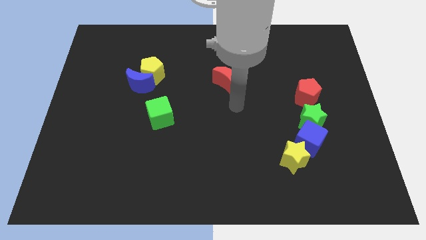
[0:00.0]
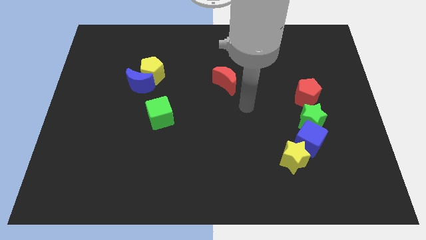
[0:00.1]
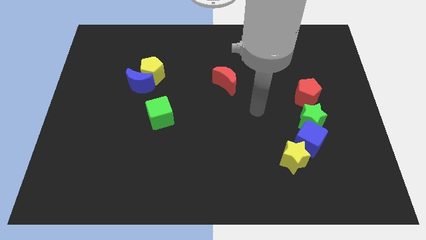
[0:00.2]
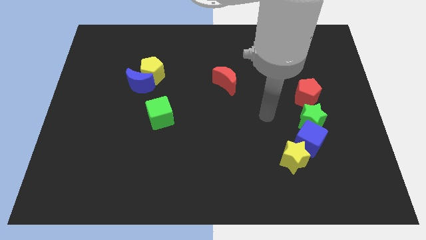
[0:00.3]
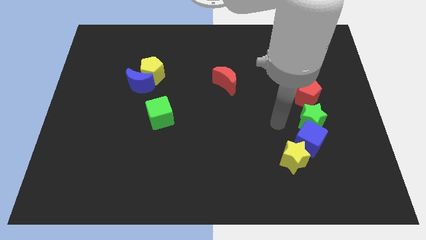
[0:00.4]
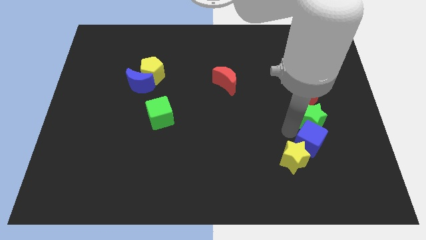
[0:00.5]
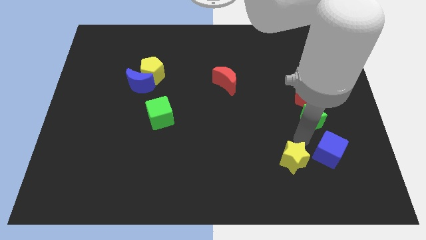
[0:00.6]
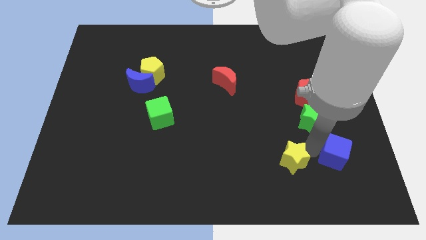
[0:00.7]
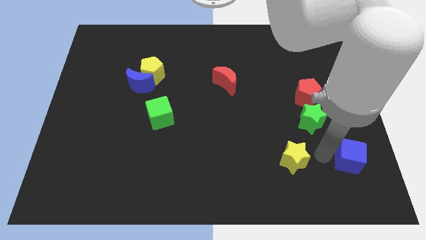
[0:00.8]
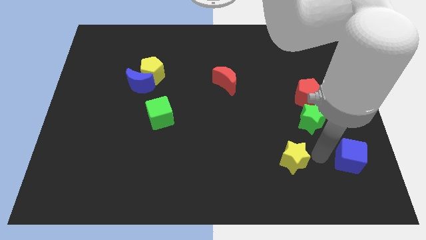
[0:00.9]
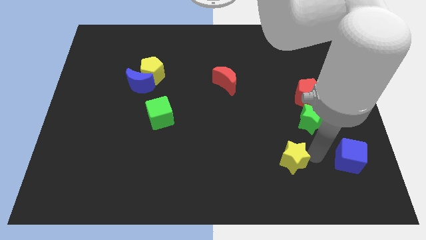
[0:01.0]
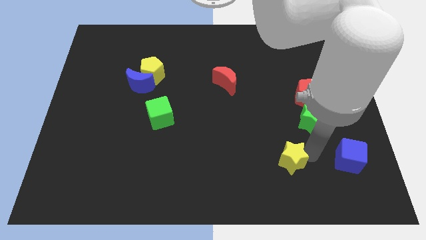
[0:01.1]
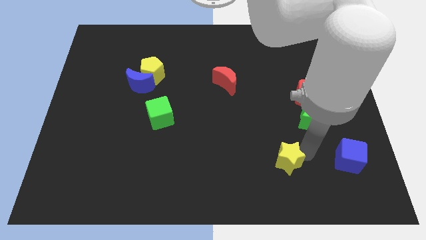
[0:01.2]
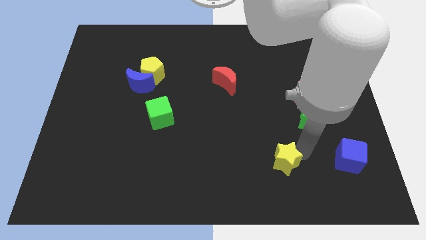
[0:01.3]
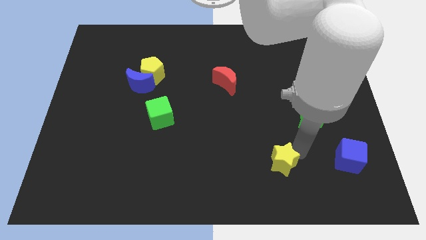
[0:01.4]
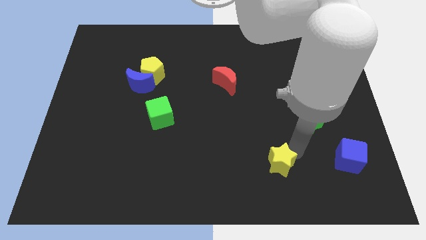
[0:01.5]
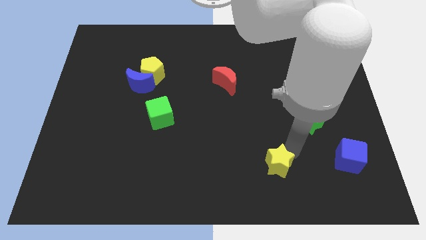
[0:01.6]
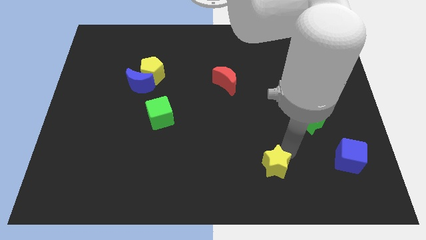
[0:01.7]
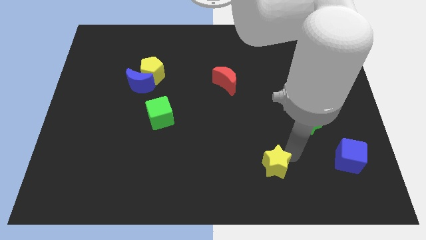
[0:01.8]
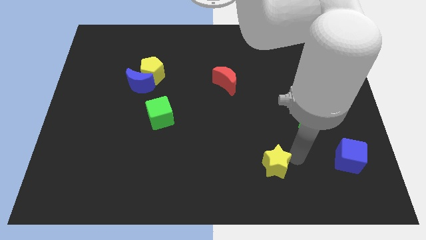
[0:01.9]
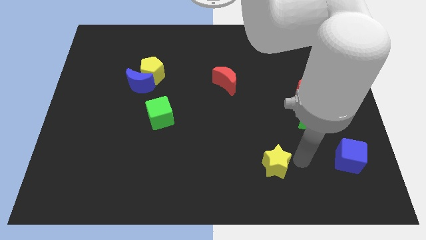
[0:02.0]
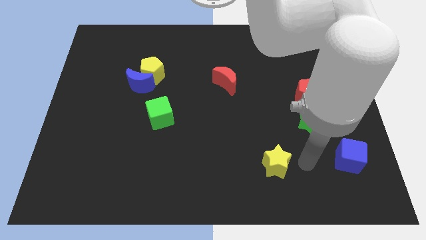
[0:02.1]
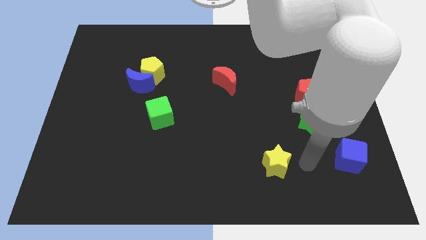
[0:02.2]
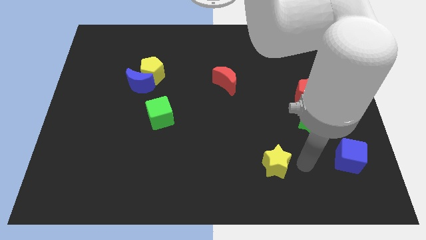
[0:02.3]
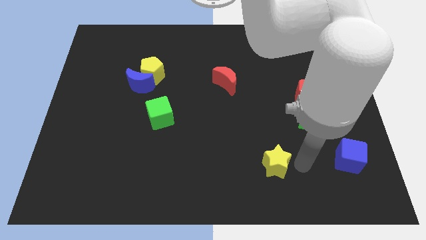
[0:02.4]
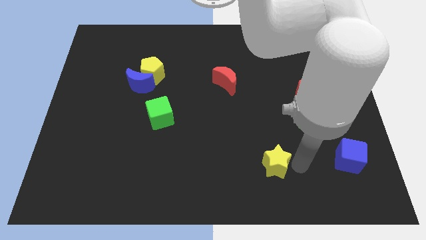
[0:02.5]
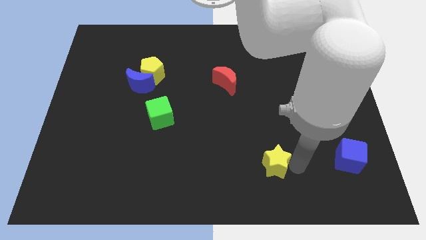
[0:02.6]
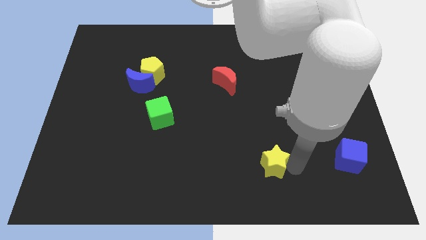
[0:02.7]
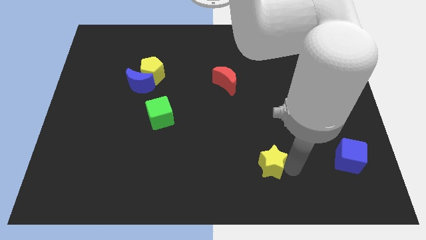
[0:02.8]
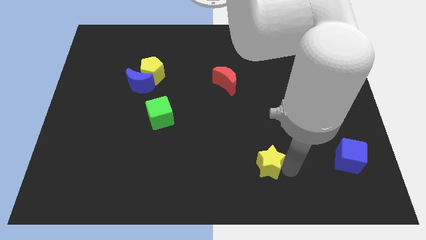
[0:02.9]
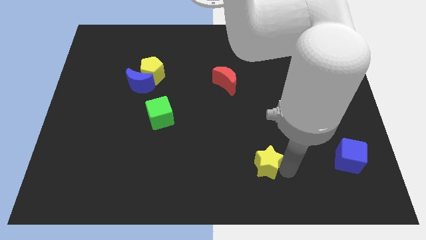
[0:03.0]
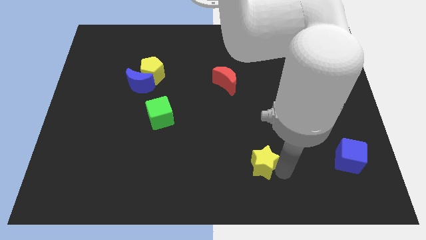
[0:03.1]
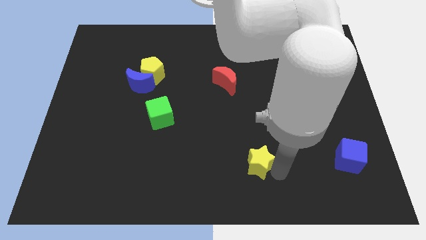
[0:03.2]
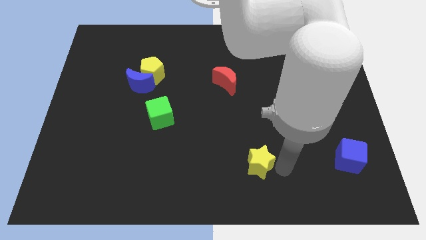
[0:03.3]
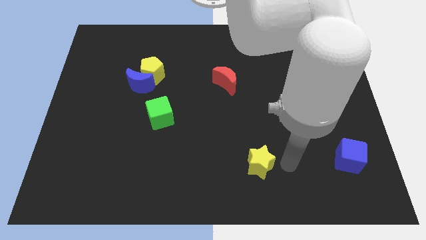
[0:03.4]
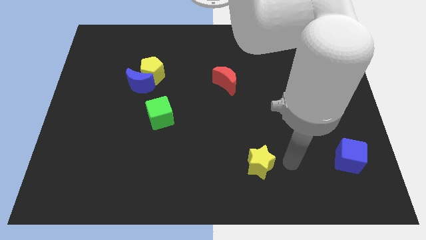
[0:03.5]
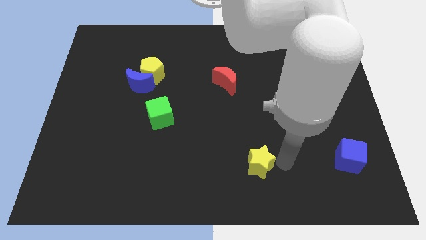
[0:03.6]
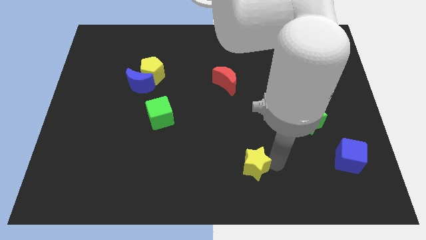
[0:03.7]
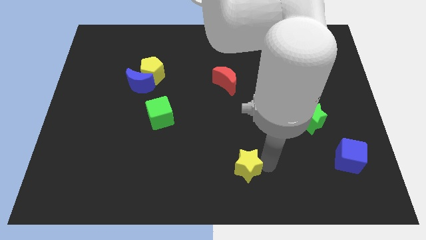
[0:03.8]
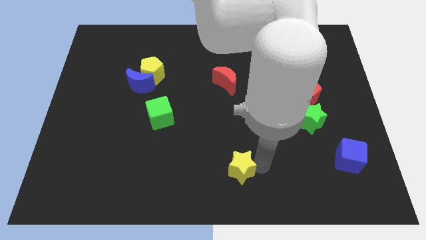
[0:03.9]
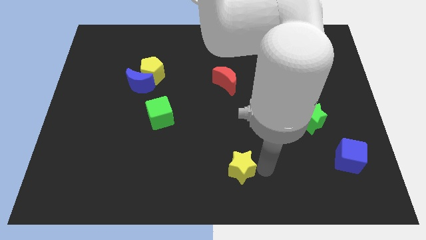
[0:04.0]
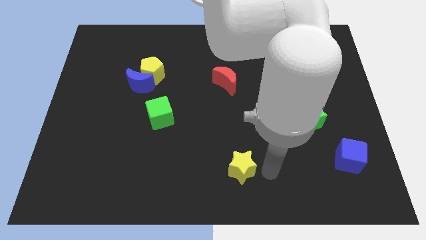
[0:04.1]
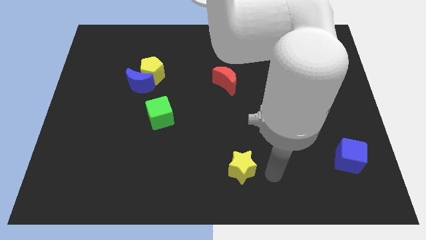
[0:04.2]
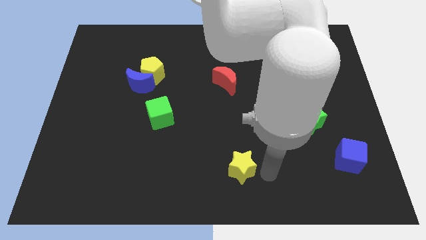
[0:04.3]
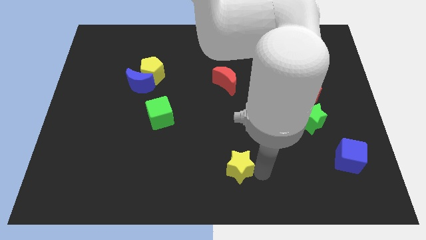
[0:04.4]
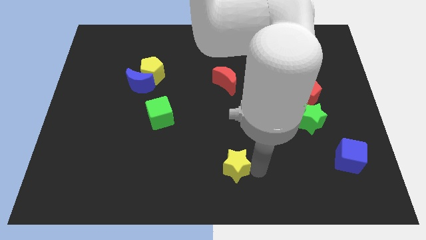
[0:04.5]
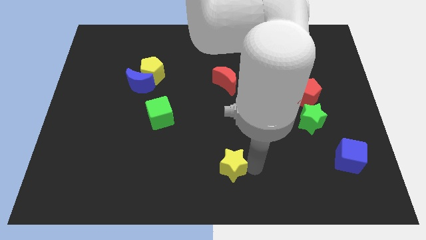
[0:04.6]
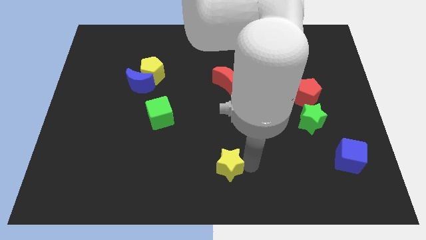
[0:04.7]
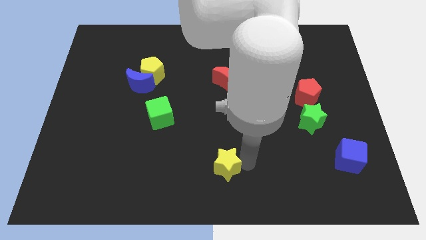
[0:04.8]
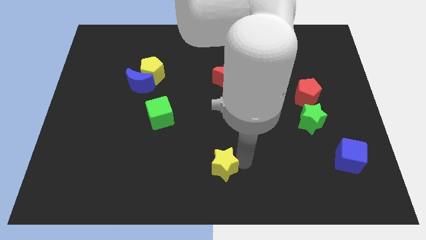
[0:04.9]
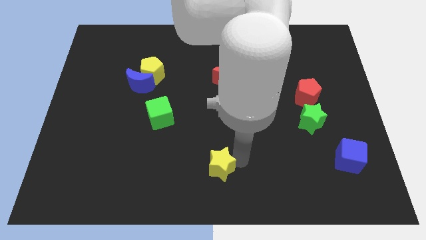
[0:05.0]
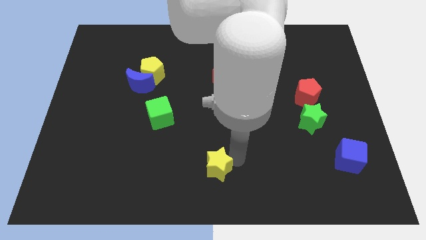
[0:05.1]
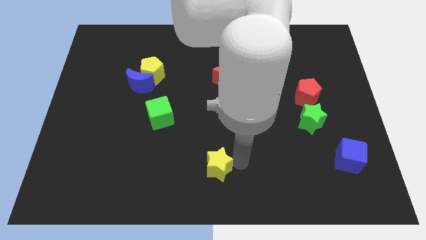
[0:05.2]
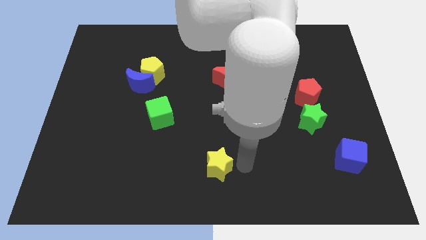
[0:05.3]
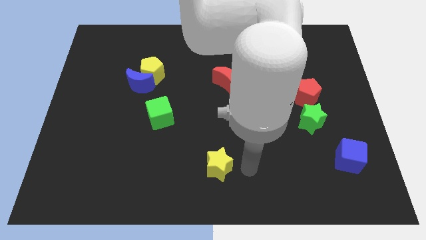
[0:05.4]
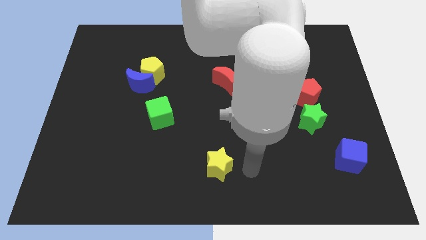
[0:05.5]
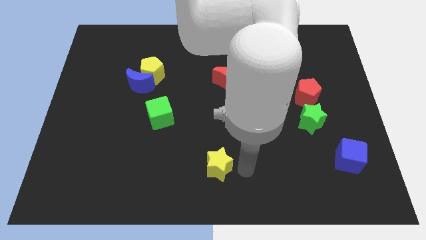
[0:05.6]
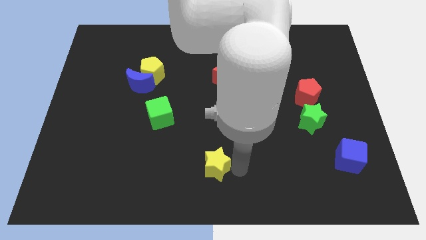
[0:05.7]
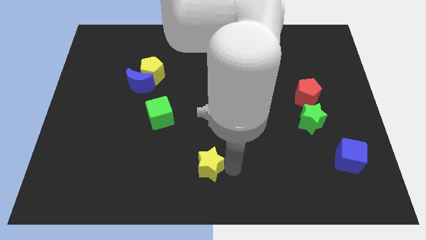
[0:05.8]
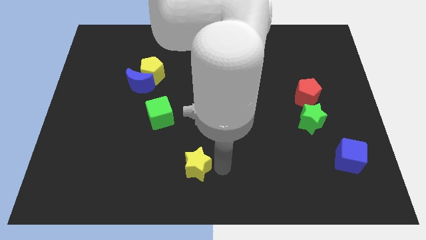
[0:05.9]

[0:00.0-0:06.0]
push the yellow star left

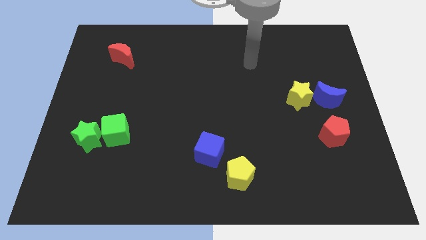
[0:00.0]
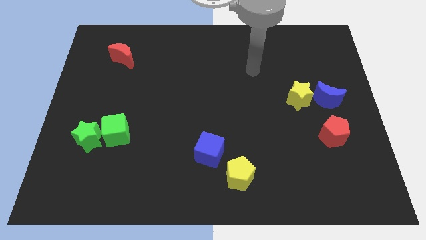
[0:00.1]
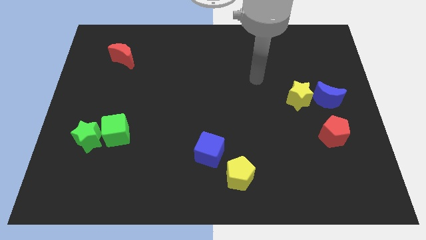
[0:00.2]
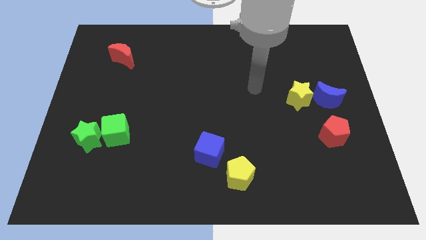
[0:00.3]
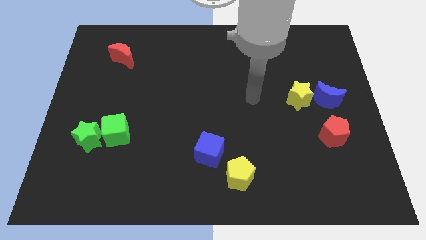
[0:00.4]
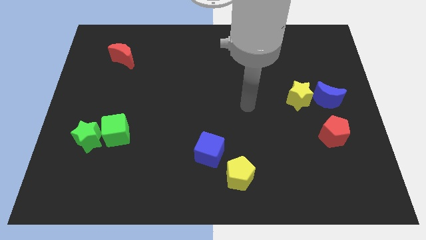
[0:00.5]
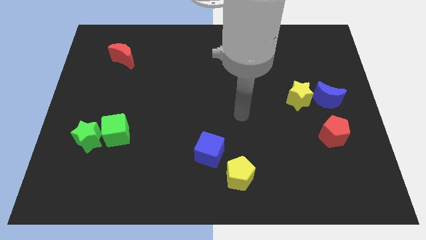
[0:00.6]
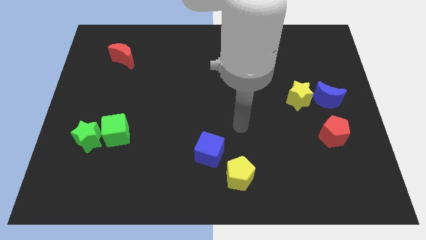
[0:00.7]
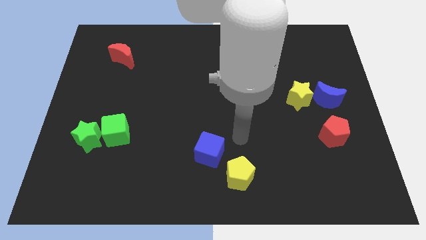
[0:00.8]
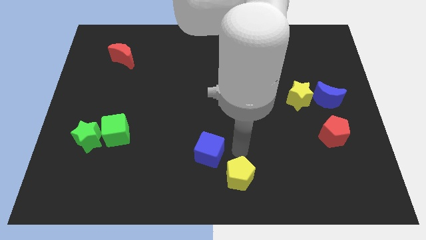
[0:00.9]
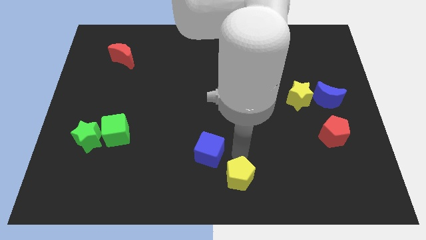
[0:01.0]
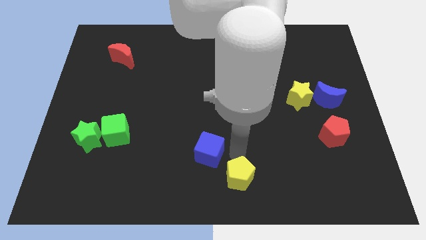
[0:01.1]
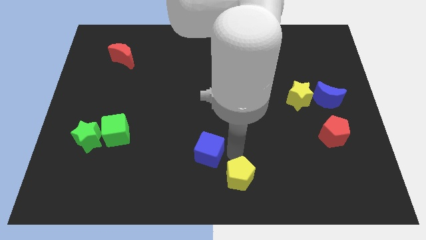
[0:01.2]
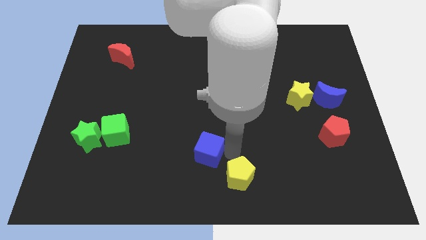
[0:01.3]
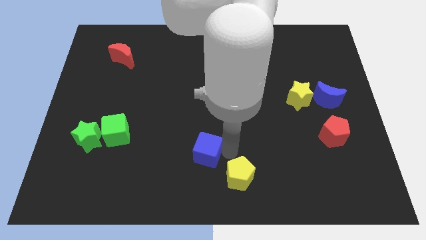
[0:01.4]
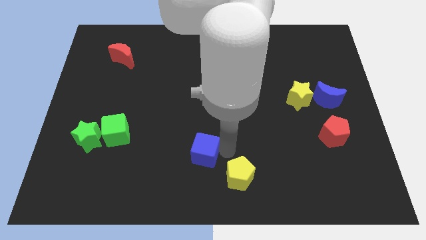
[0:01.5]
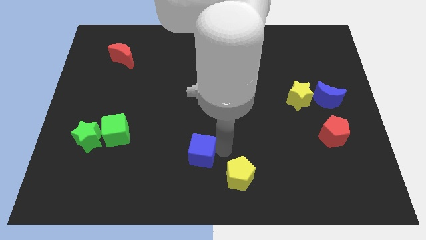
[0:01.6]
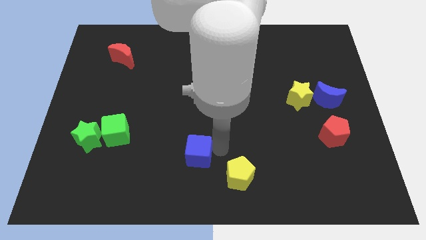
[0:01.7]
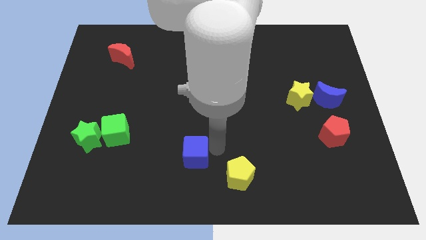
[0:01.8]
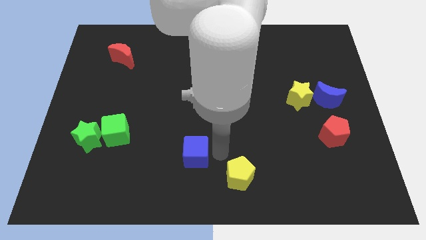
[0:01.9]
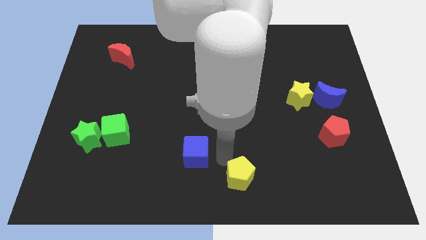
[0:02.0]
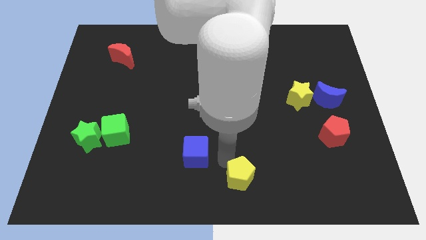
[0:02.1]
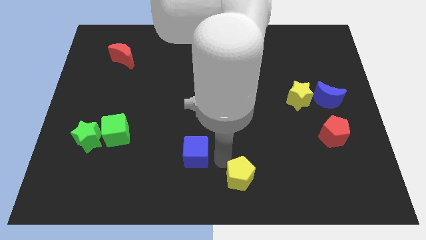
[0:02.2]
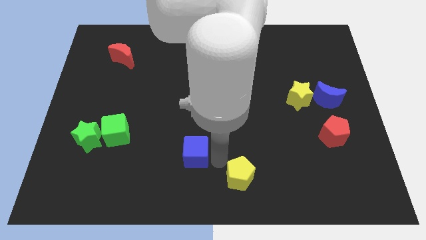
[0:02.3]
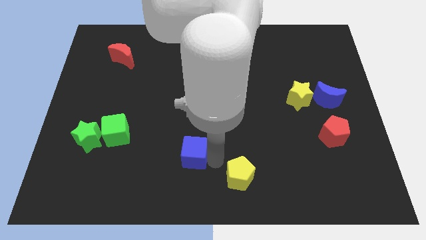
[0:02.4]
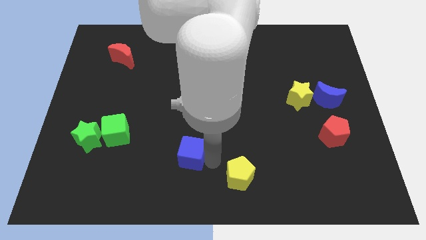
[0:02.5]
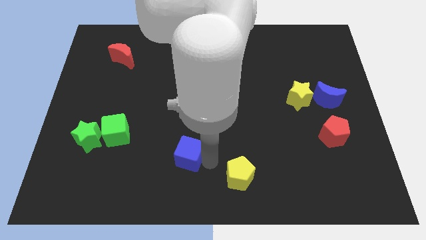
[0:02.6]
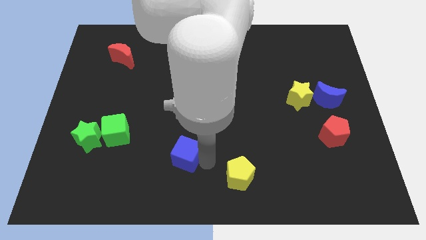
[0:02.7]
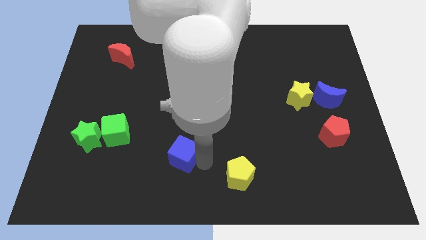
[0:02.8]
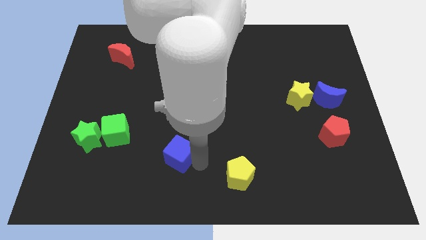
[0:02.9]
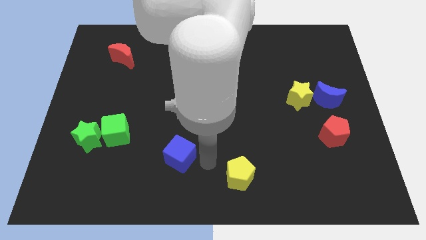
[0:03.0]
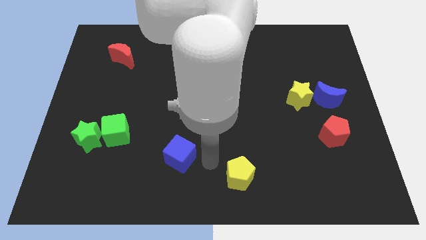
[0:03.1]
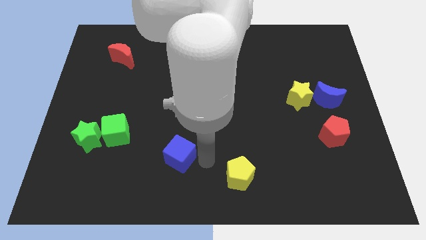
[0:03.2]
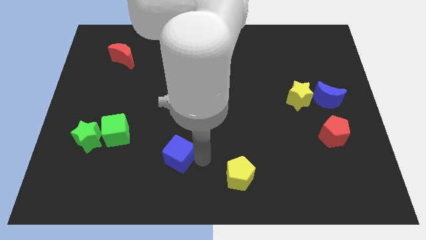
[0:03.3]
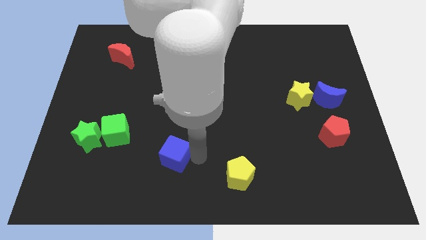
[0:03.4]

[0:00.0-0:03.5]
slightly move the blue cube to the left
